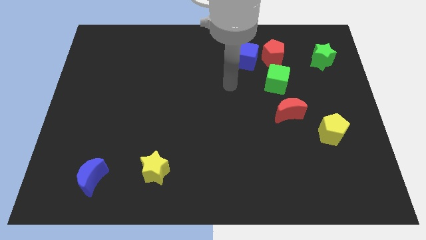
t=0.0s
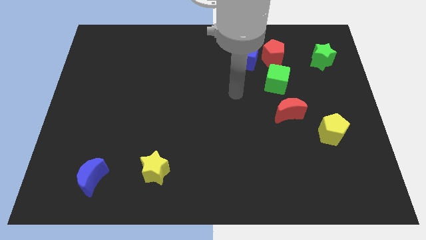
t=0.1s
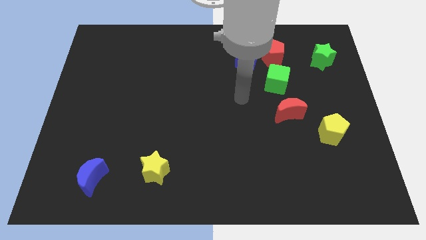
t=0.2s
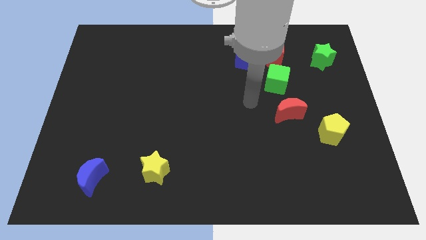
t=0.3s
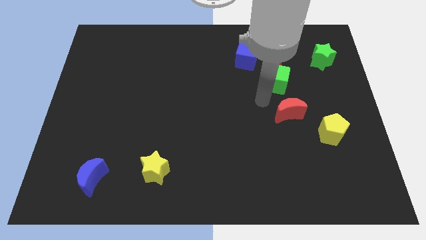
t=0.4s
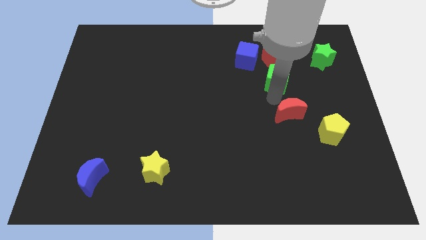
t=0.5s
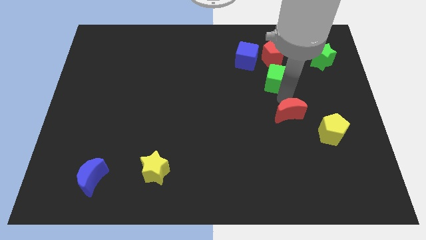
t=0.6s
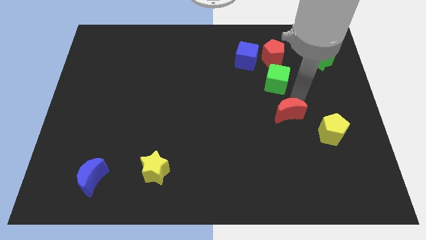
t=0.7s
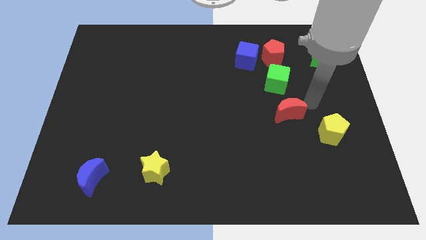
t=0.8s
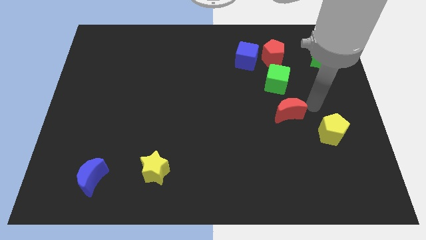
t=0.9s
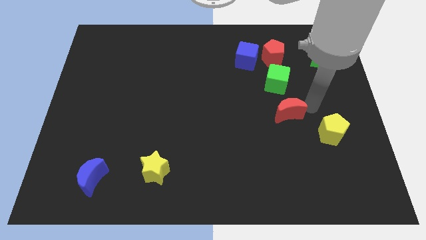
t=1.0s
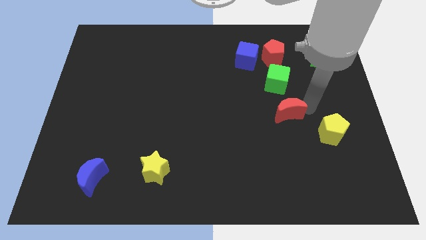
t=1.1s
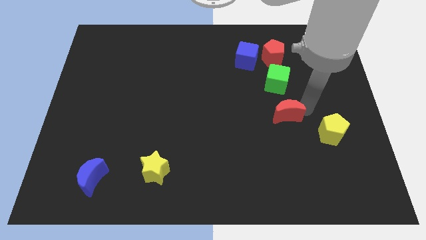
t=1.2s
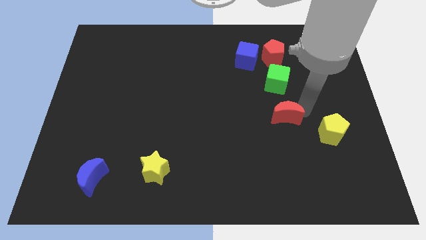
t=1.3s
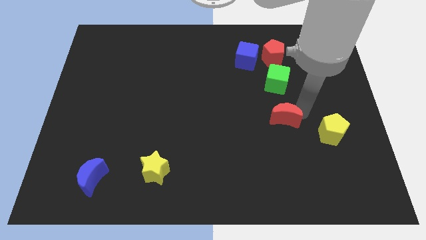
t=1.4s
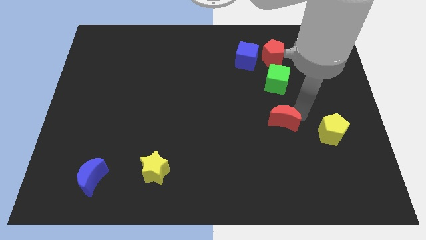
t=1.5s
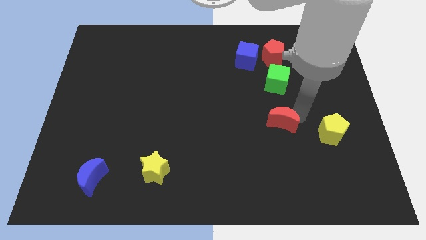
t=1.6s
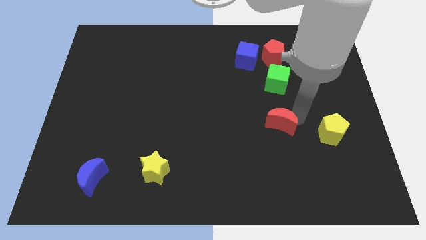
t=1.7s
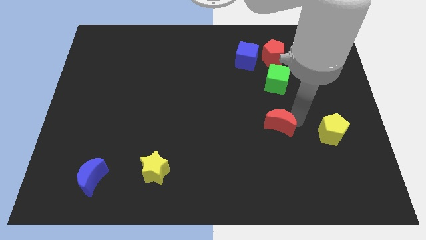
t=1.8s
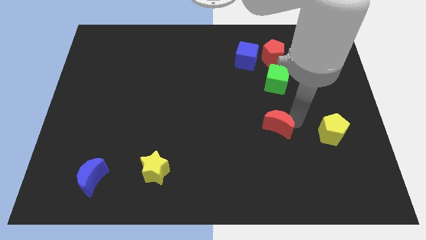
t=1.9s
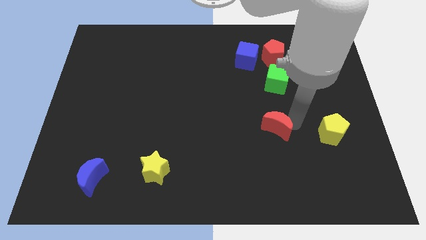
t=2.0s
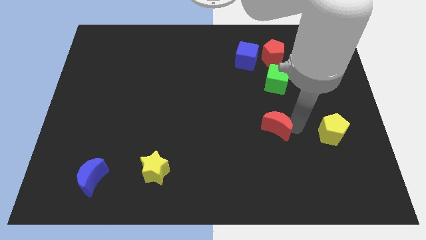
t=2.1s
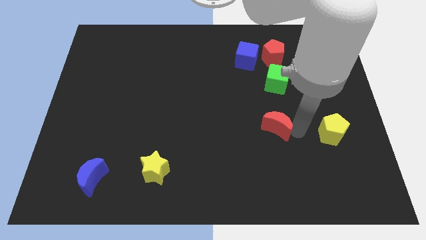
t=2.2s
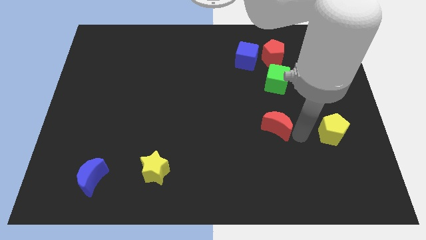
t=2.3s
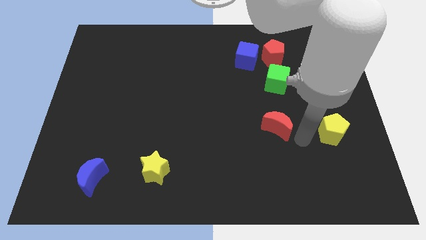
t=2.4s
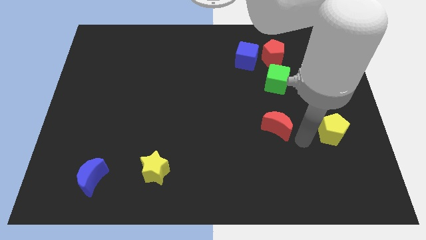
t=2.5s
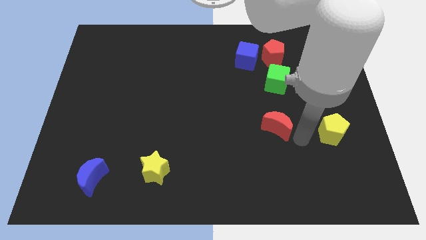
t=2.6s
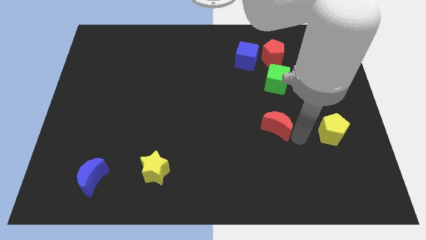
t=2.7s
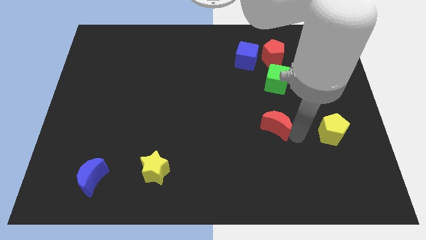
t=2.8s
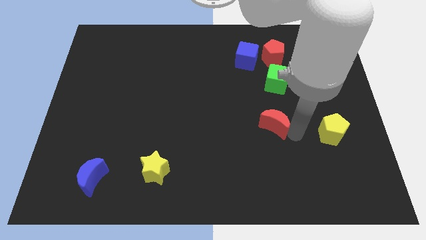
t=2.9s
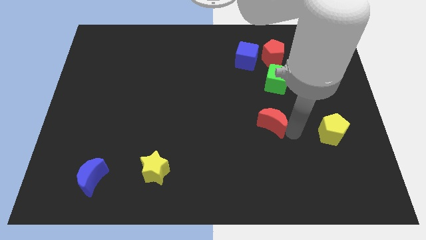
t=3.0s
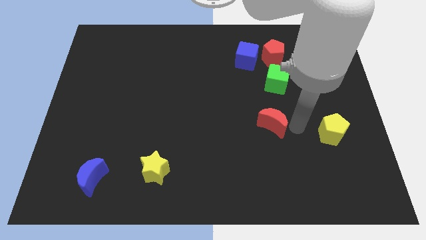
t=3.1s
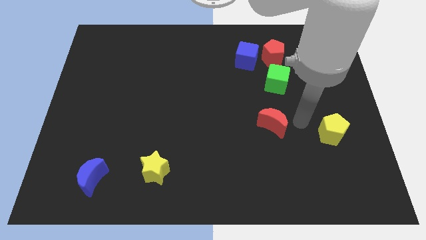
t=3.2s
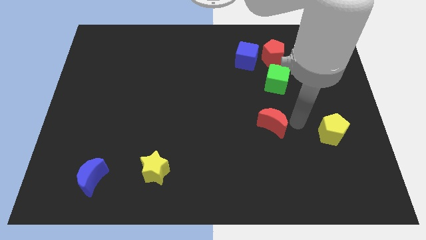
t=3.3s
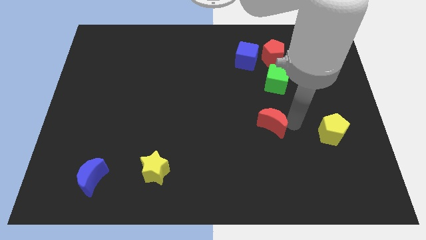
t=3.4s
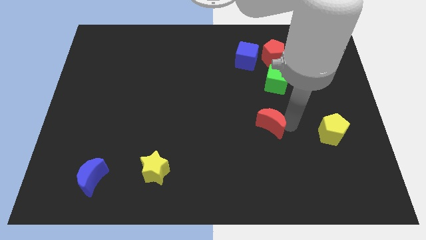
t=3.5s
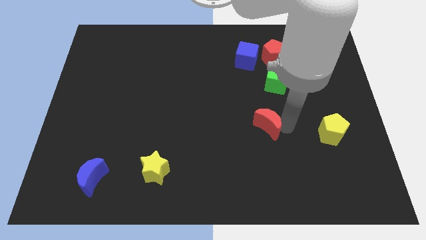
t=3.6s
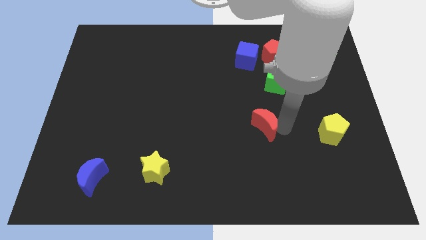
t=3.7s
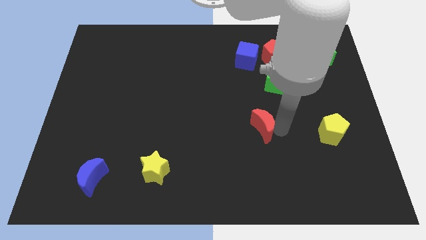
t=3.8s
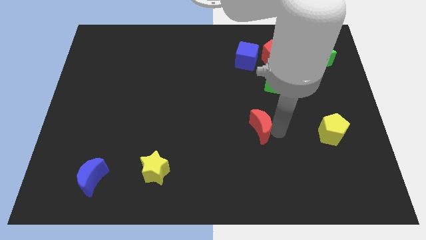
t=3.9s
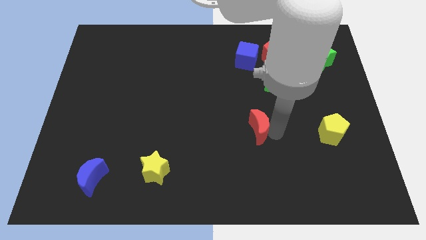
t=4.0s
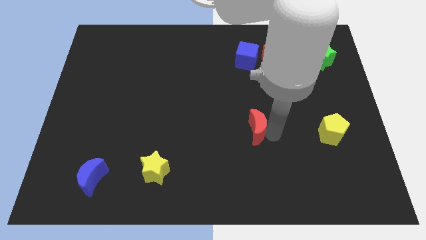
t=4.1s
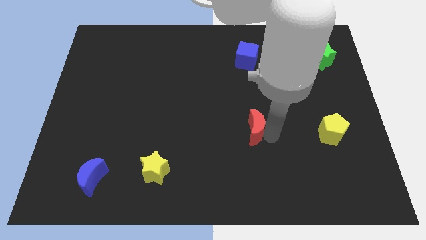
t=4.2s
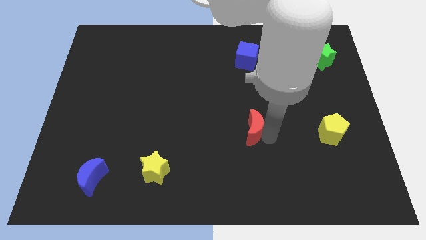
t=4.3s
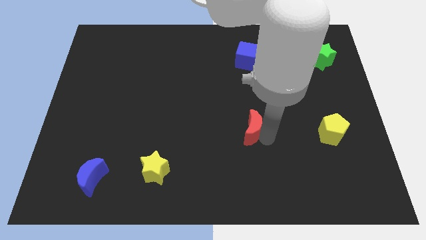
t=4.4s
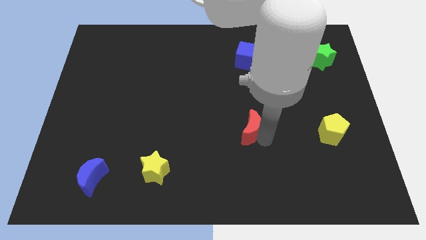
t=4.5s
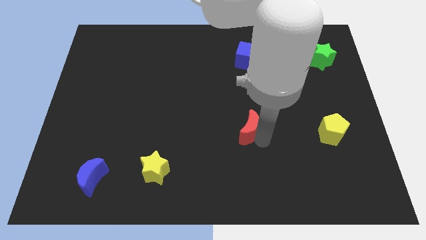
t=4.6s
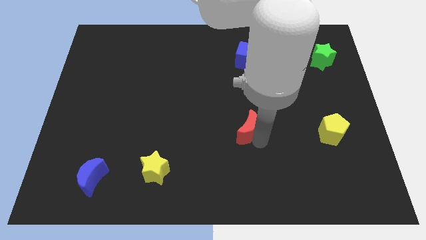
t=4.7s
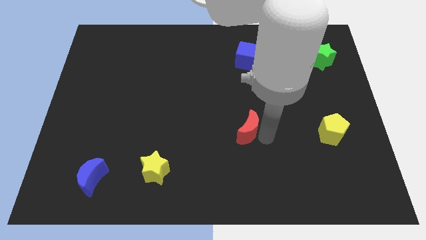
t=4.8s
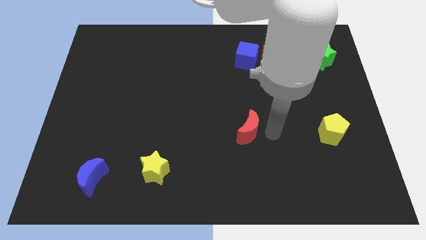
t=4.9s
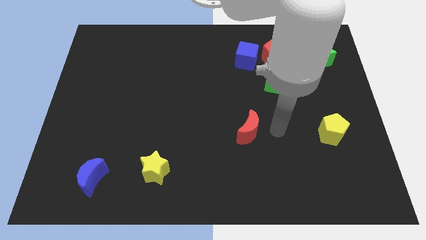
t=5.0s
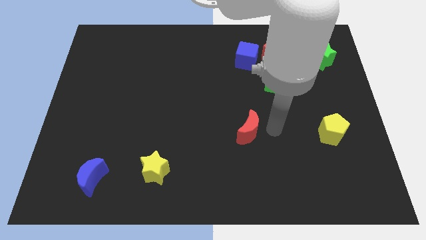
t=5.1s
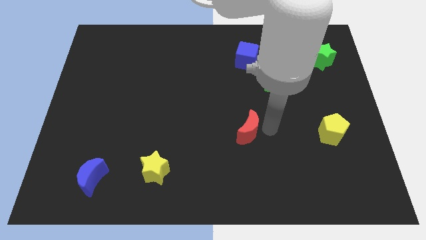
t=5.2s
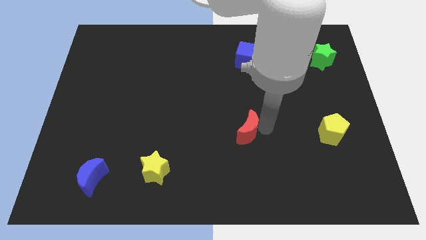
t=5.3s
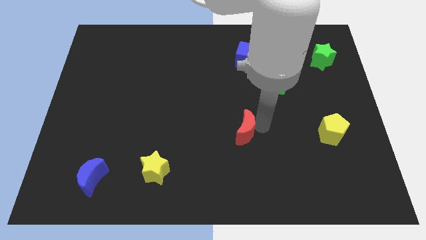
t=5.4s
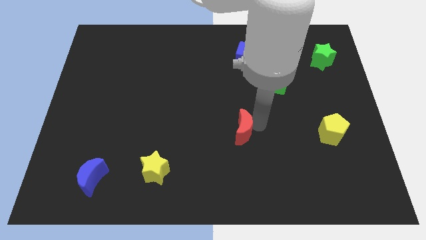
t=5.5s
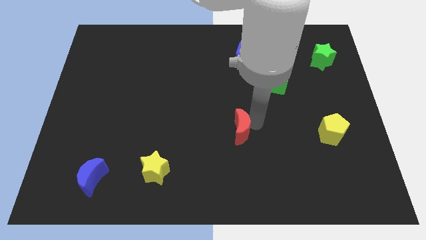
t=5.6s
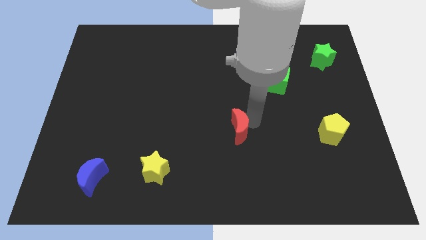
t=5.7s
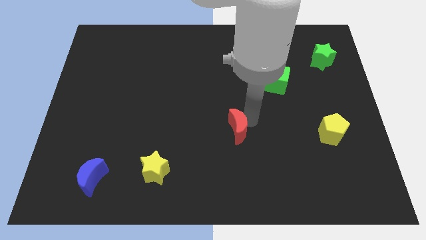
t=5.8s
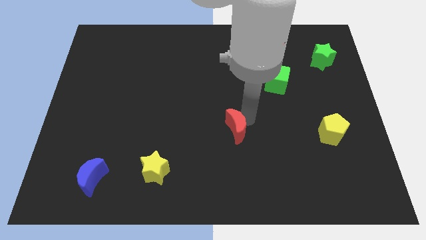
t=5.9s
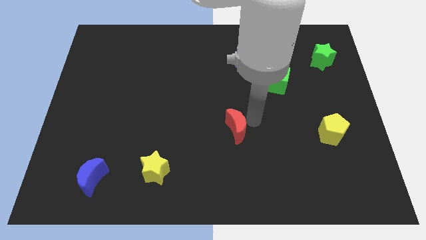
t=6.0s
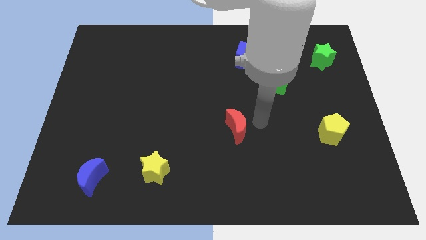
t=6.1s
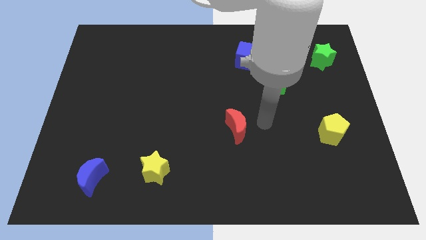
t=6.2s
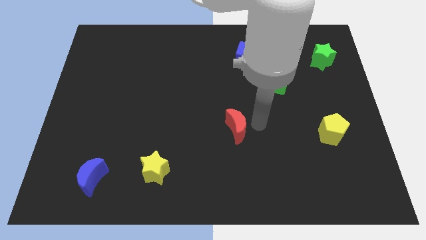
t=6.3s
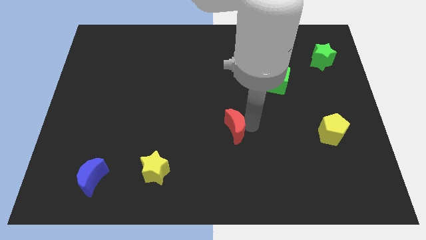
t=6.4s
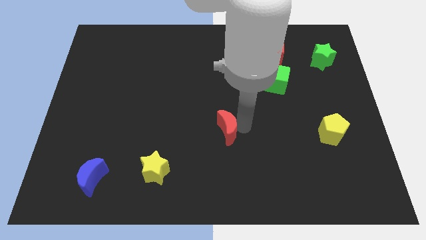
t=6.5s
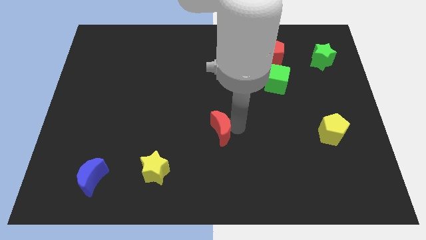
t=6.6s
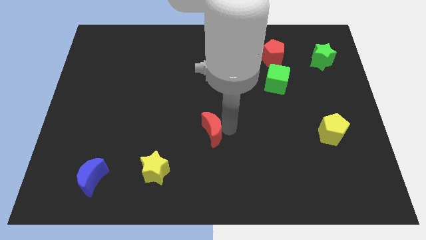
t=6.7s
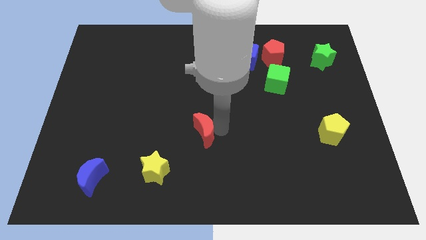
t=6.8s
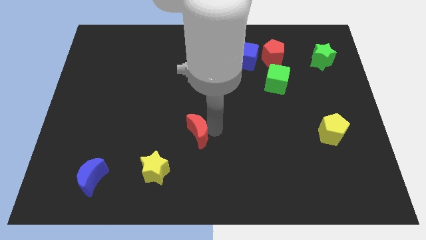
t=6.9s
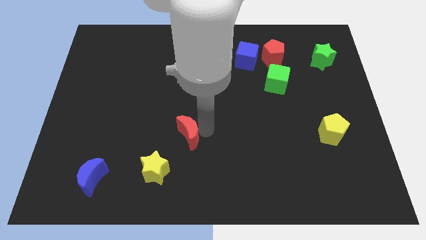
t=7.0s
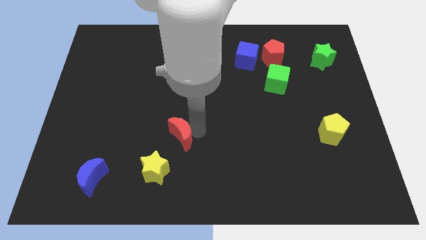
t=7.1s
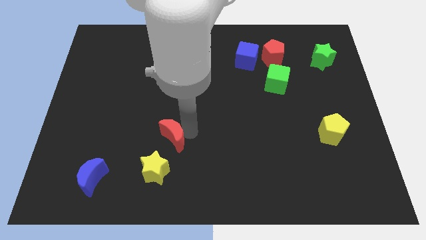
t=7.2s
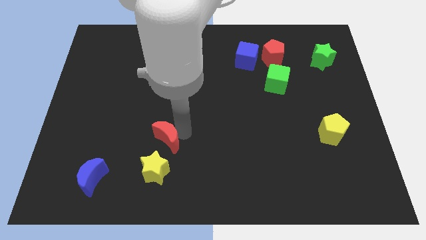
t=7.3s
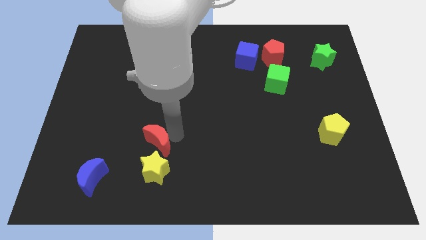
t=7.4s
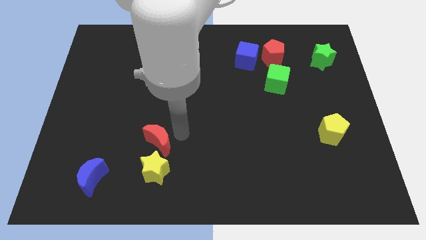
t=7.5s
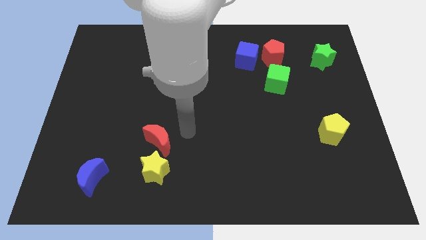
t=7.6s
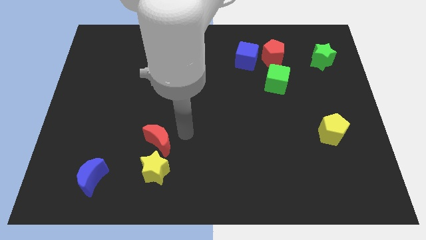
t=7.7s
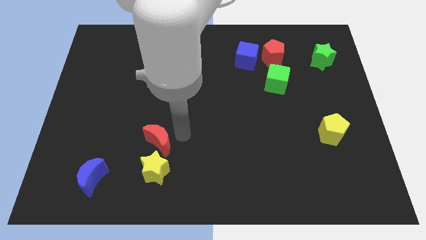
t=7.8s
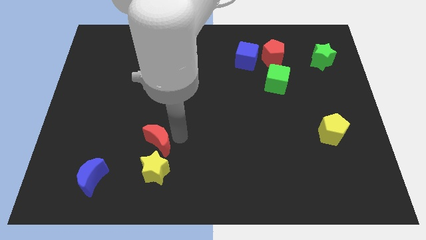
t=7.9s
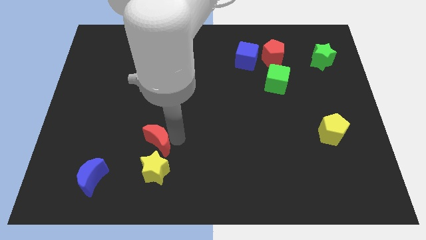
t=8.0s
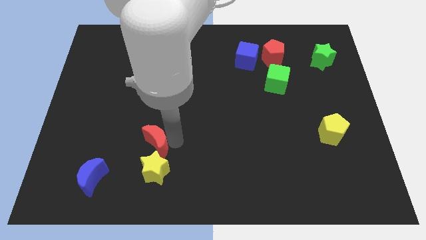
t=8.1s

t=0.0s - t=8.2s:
put the red moon diagonally up and to the left of the yellow star
